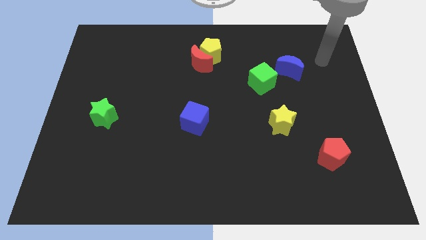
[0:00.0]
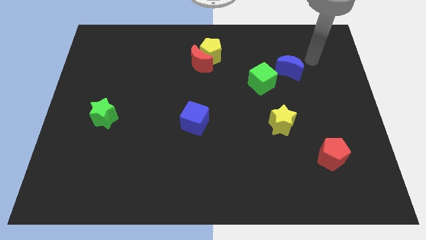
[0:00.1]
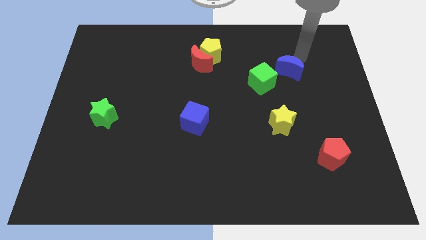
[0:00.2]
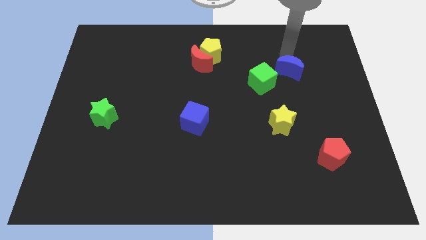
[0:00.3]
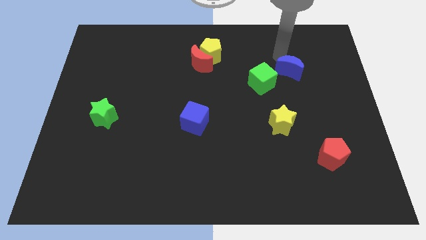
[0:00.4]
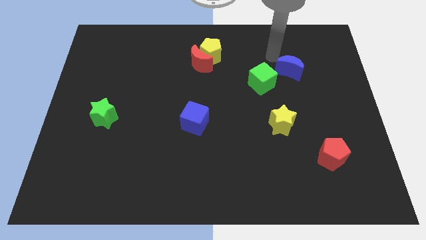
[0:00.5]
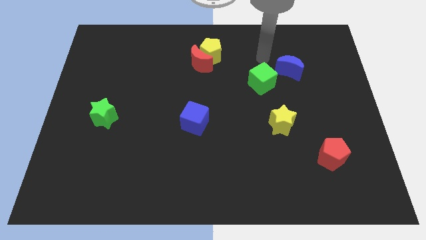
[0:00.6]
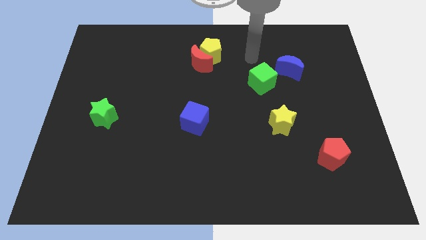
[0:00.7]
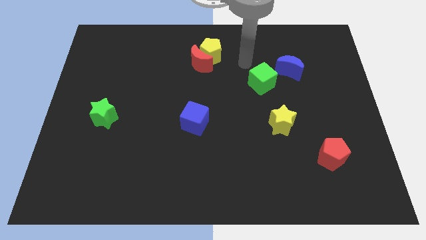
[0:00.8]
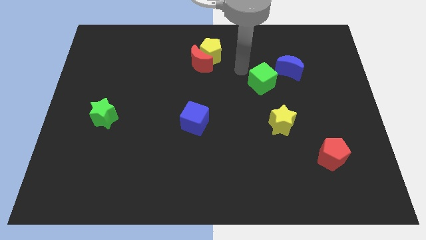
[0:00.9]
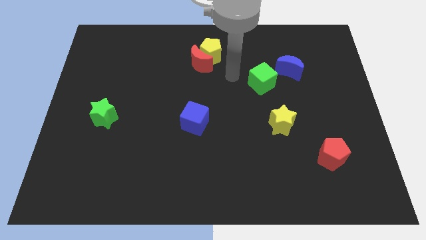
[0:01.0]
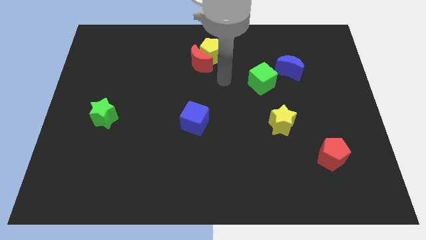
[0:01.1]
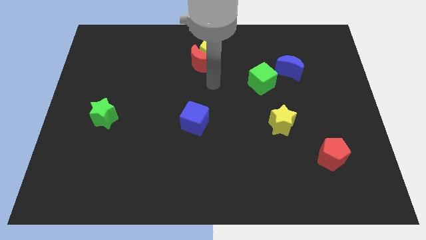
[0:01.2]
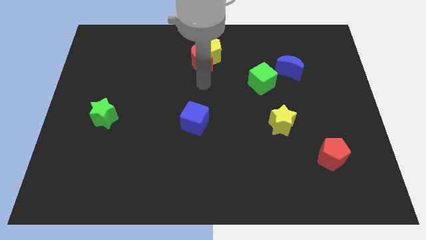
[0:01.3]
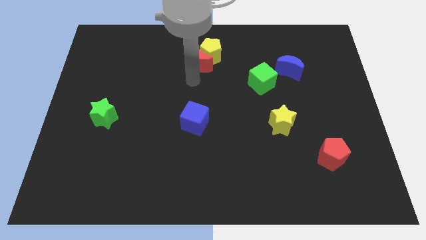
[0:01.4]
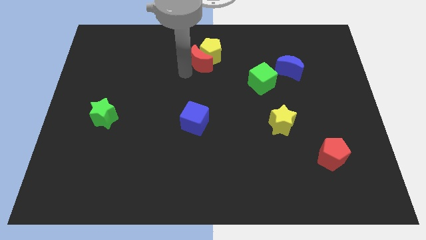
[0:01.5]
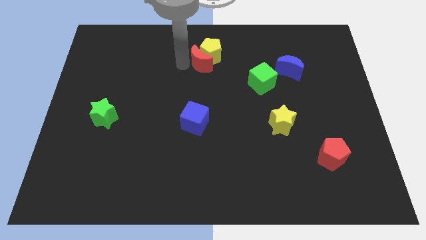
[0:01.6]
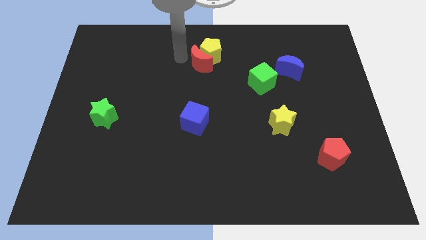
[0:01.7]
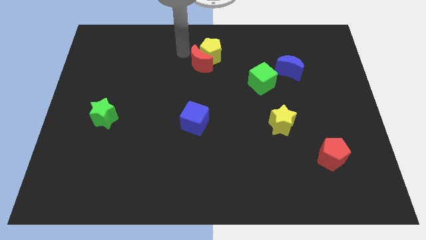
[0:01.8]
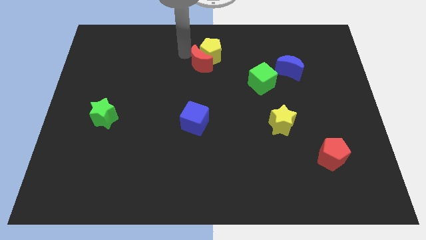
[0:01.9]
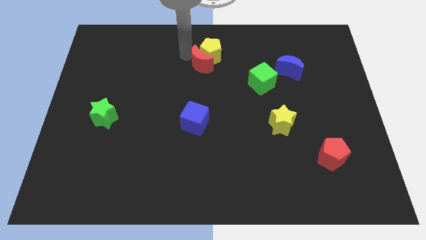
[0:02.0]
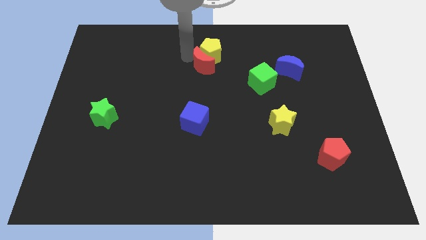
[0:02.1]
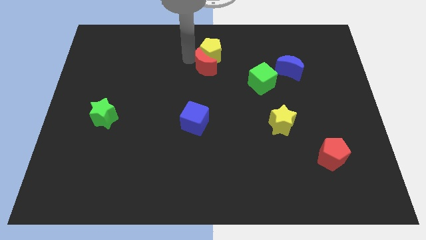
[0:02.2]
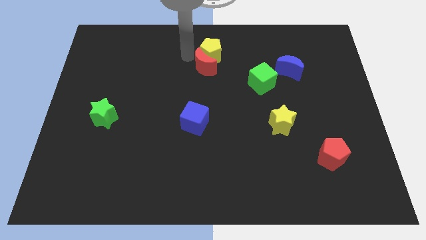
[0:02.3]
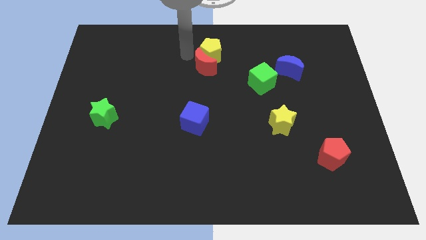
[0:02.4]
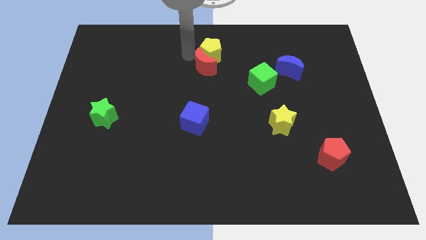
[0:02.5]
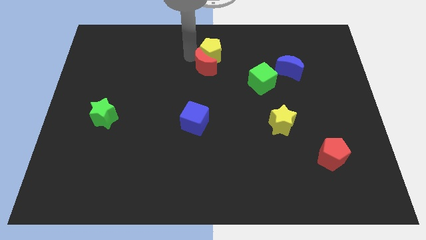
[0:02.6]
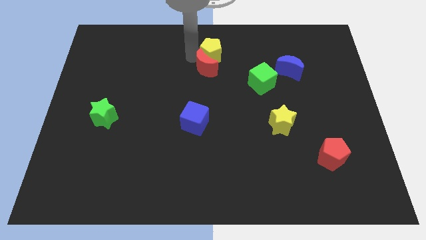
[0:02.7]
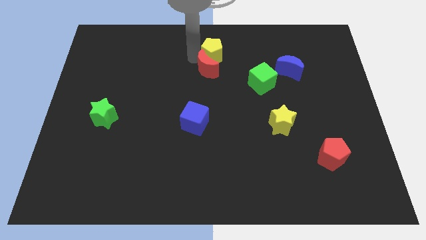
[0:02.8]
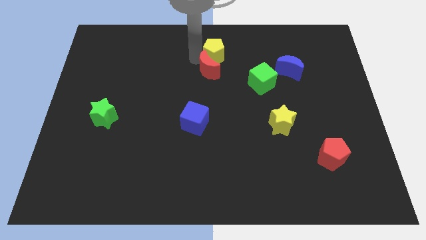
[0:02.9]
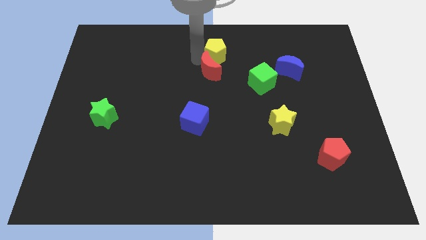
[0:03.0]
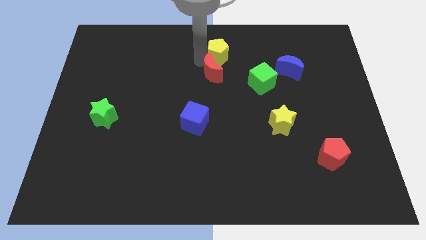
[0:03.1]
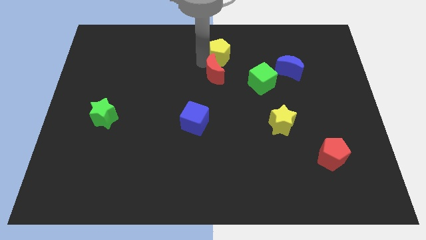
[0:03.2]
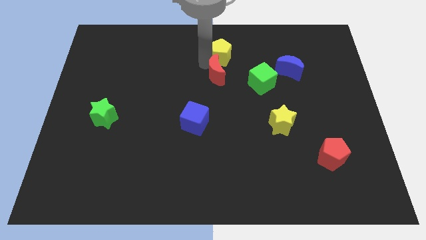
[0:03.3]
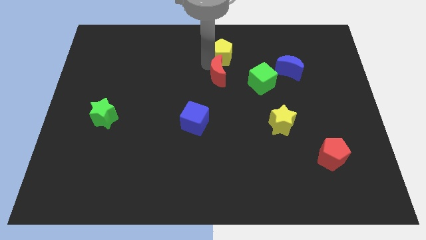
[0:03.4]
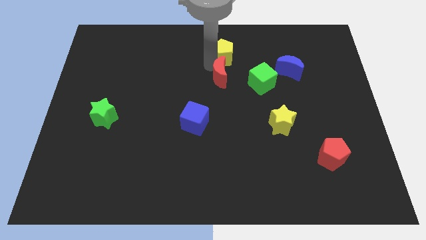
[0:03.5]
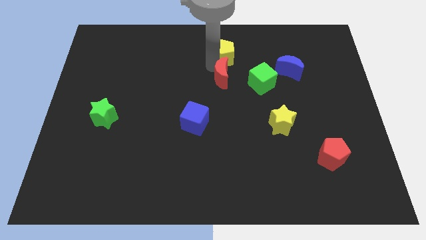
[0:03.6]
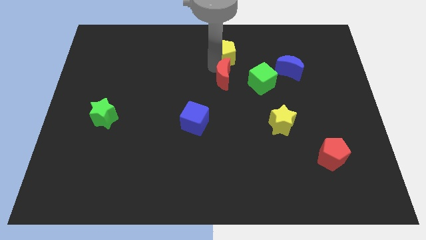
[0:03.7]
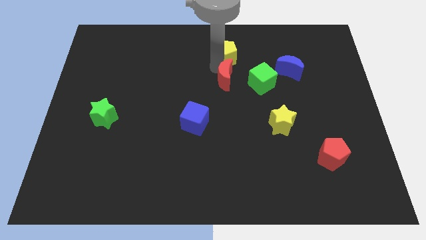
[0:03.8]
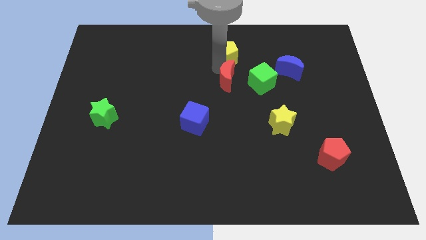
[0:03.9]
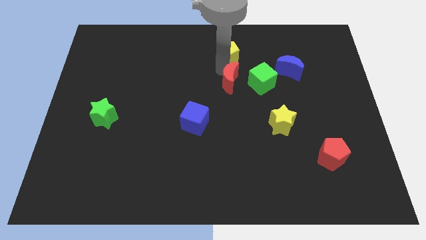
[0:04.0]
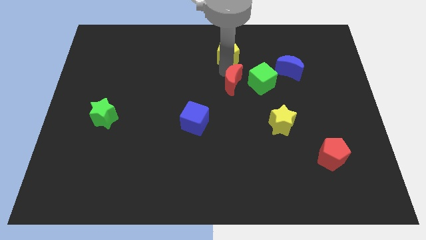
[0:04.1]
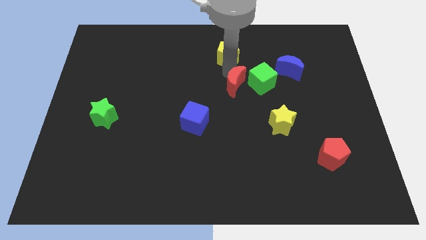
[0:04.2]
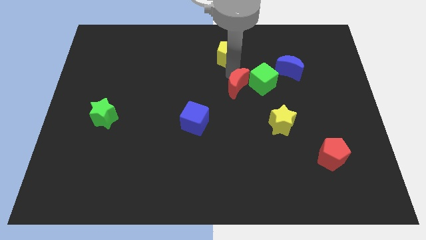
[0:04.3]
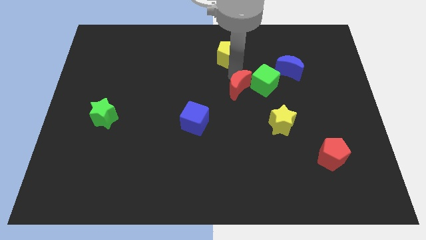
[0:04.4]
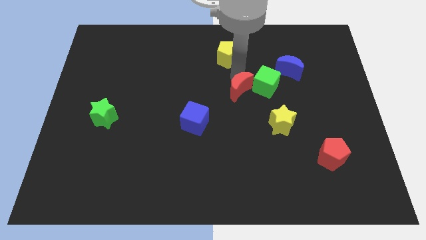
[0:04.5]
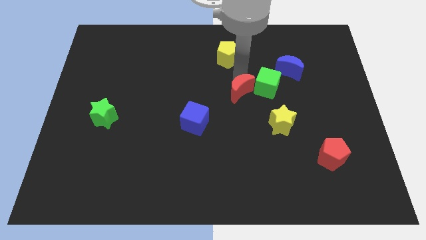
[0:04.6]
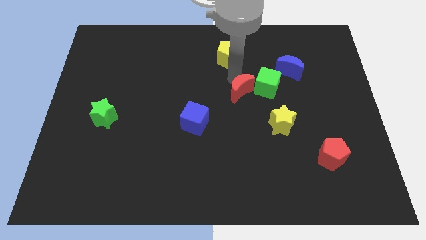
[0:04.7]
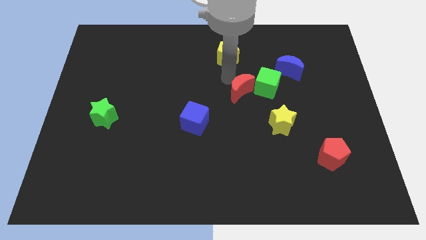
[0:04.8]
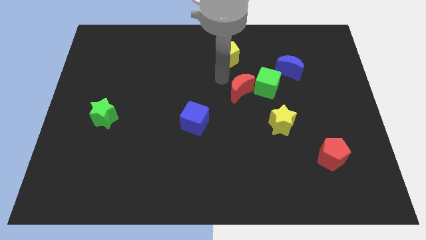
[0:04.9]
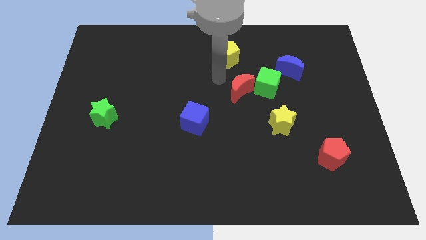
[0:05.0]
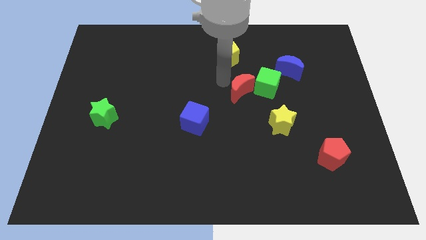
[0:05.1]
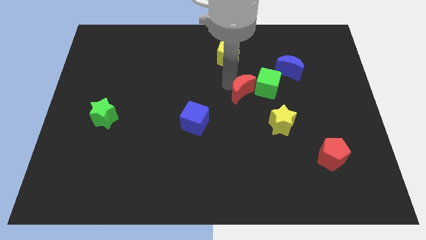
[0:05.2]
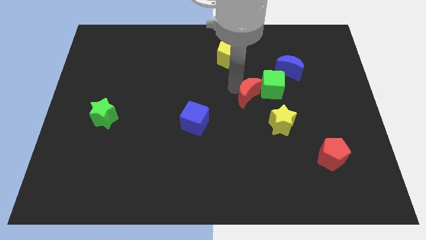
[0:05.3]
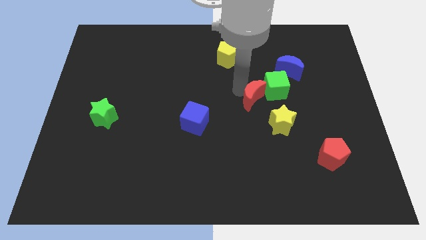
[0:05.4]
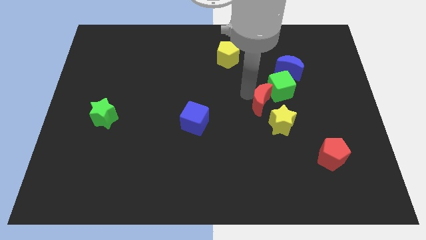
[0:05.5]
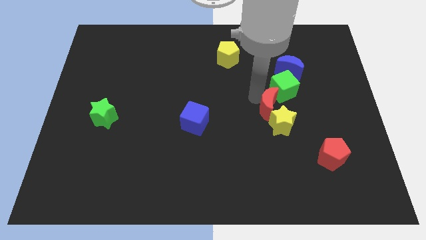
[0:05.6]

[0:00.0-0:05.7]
put the red moon towards the yellow star

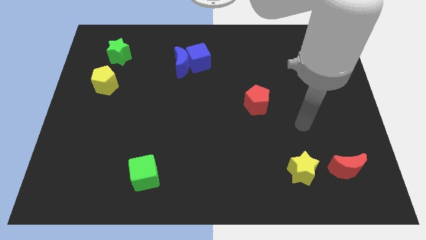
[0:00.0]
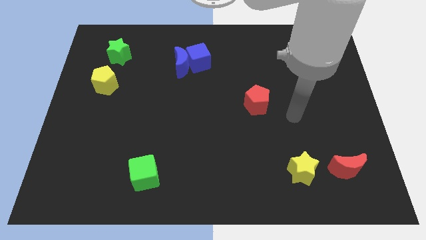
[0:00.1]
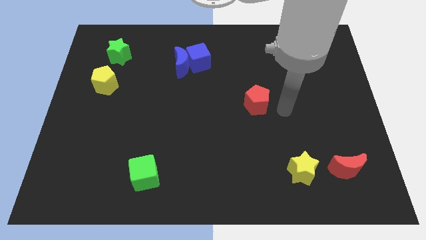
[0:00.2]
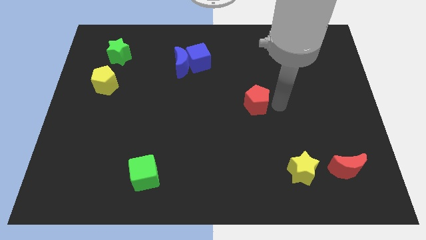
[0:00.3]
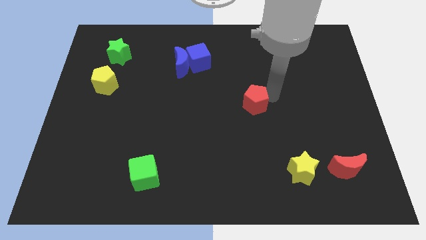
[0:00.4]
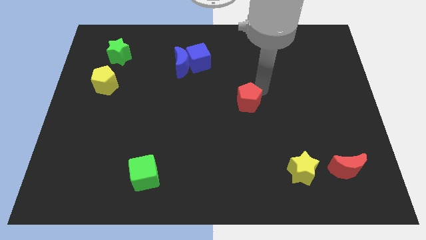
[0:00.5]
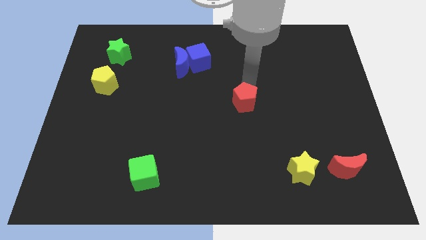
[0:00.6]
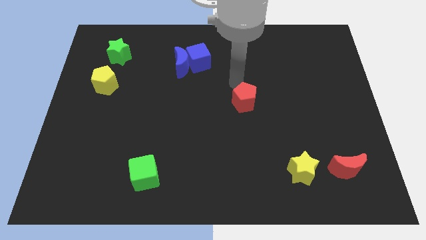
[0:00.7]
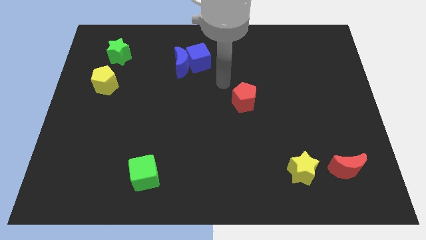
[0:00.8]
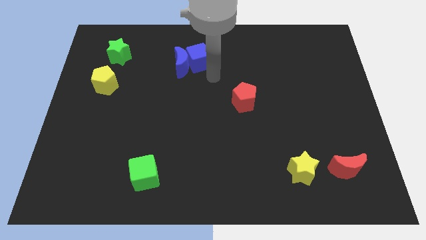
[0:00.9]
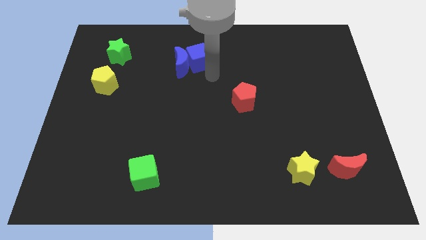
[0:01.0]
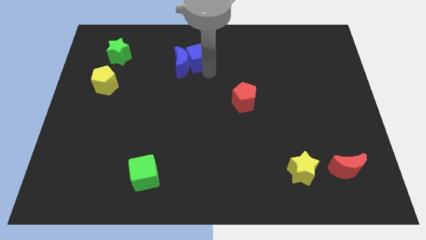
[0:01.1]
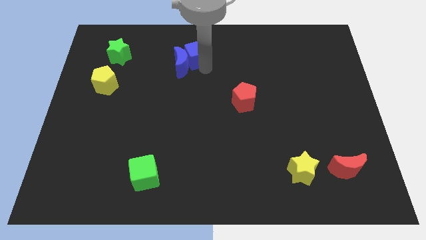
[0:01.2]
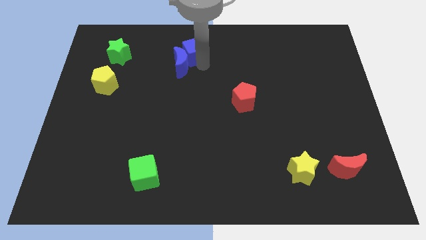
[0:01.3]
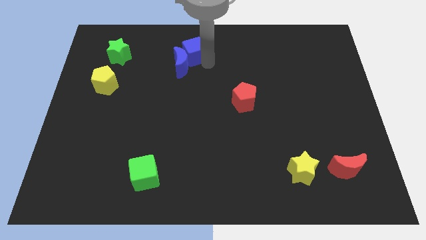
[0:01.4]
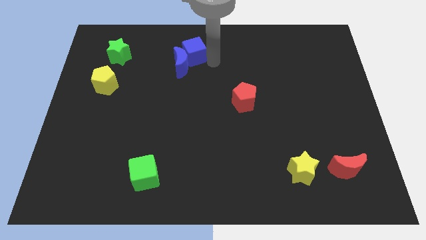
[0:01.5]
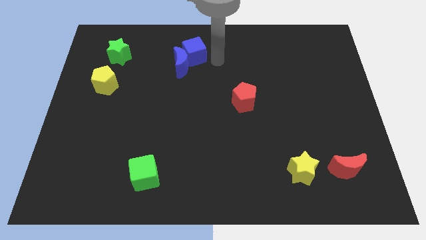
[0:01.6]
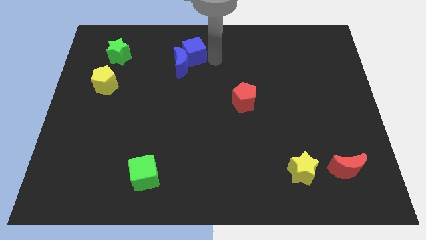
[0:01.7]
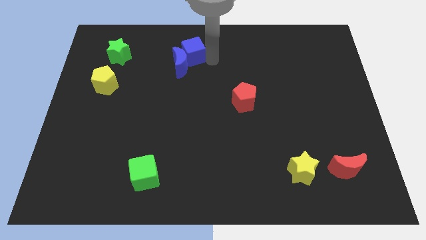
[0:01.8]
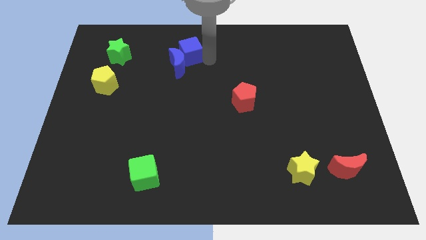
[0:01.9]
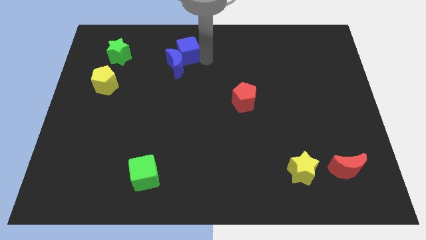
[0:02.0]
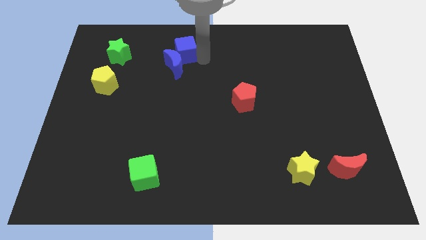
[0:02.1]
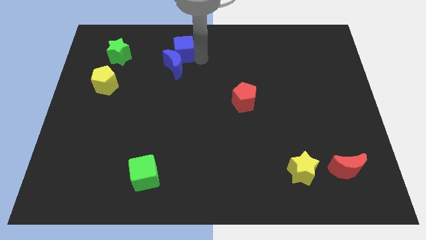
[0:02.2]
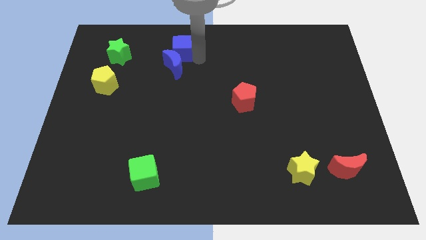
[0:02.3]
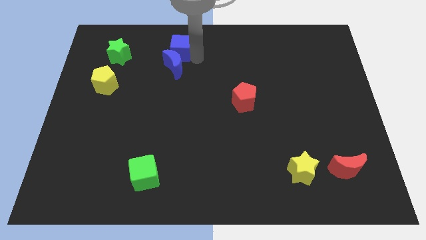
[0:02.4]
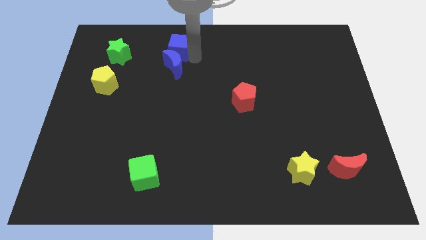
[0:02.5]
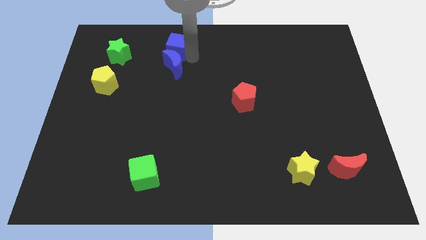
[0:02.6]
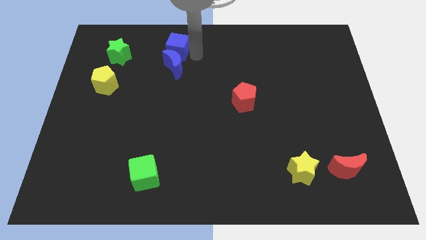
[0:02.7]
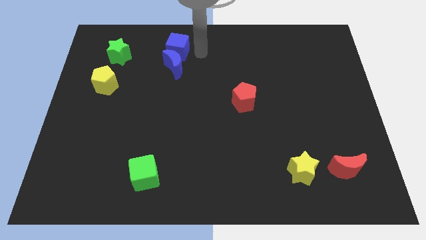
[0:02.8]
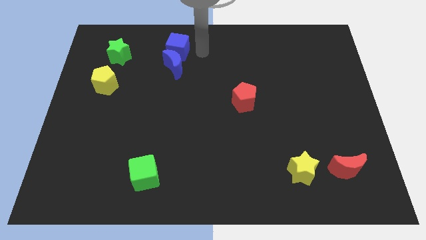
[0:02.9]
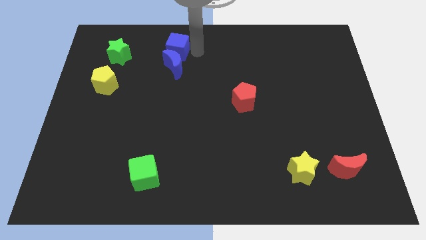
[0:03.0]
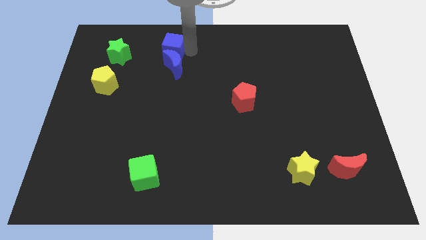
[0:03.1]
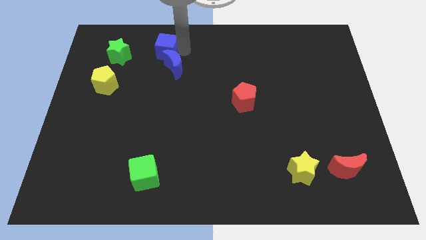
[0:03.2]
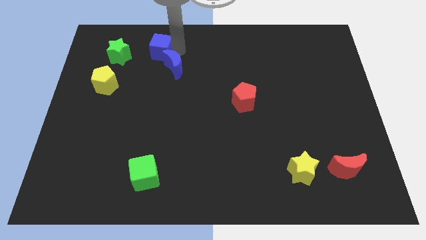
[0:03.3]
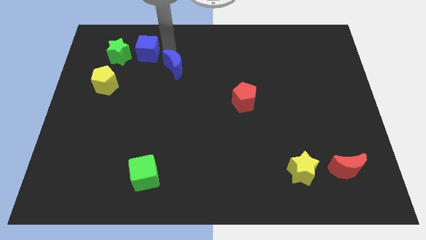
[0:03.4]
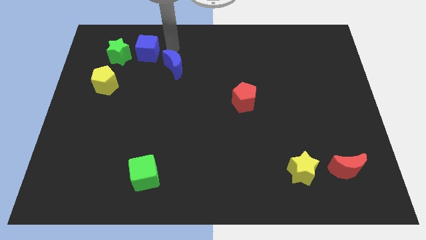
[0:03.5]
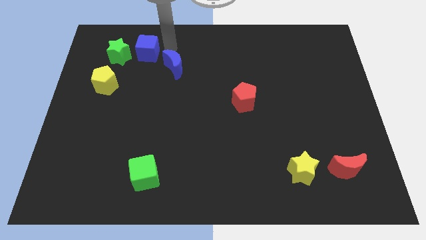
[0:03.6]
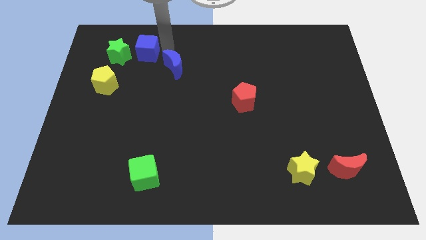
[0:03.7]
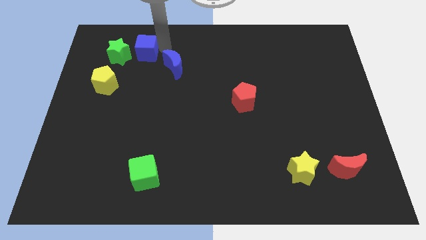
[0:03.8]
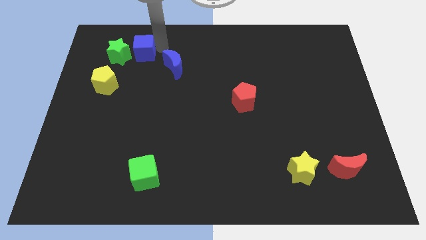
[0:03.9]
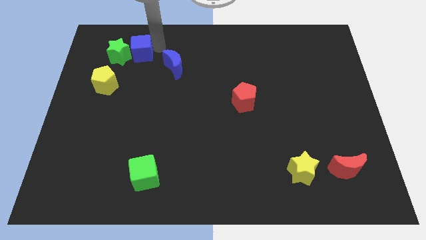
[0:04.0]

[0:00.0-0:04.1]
push the blue cube towards the green star
